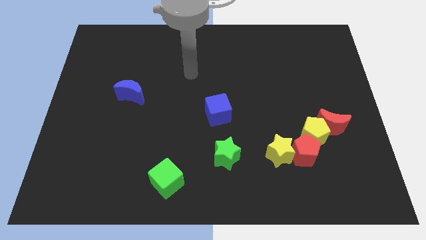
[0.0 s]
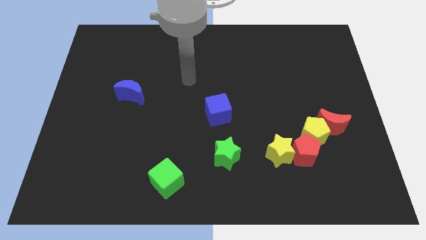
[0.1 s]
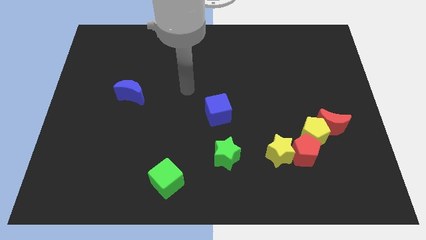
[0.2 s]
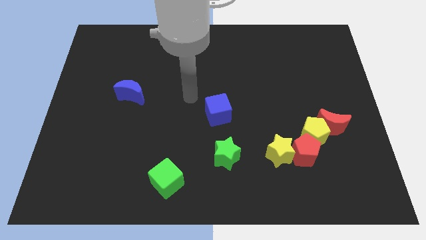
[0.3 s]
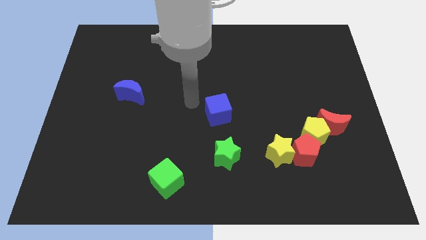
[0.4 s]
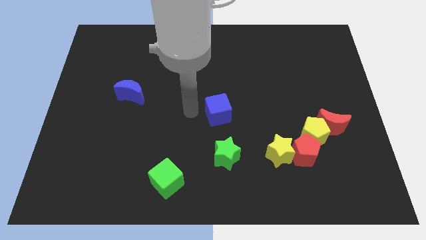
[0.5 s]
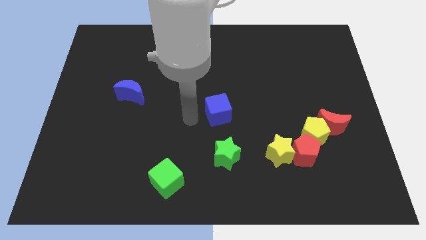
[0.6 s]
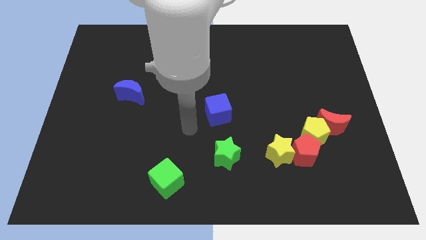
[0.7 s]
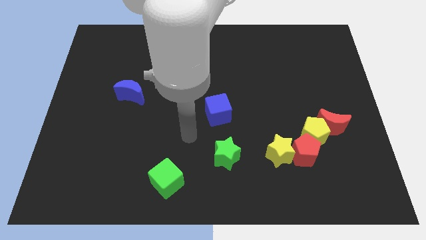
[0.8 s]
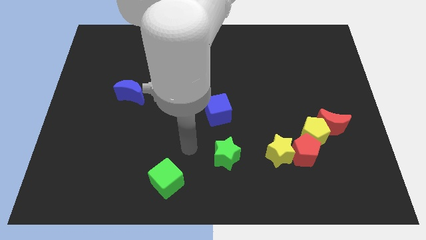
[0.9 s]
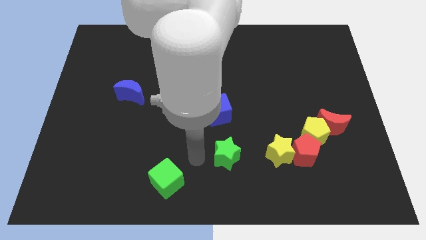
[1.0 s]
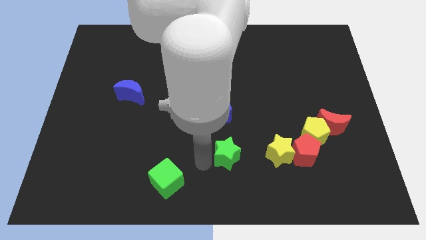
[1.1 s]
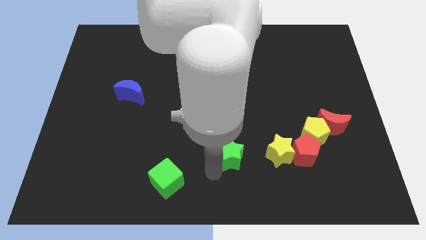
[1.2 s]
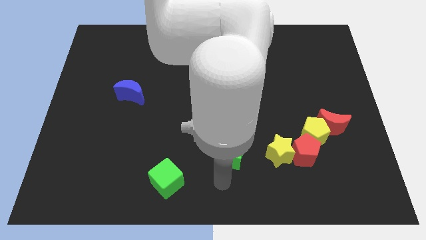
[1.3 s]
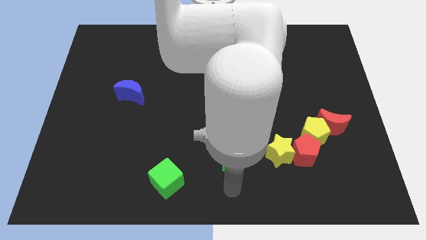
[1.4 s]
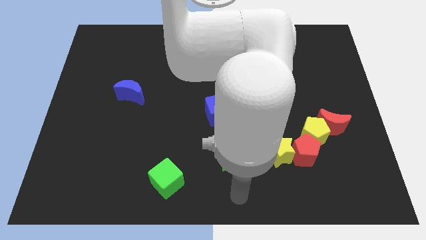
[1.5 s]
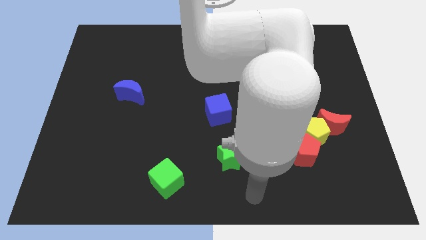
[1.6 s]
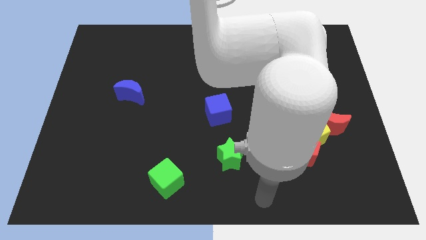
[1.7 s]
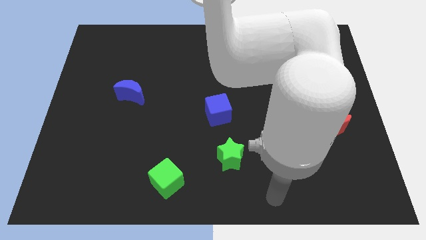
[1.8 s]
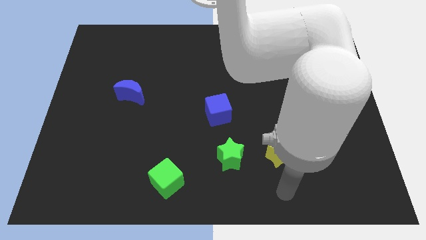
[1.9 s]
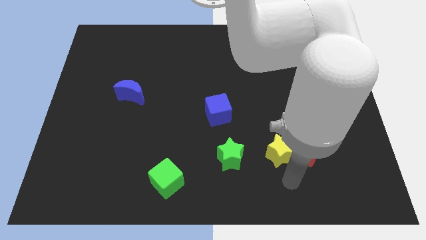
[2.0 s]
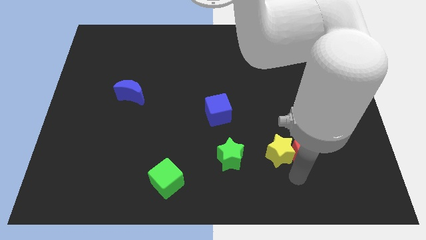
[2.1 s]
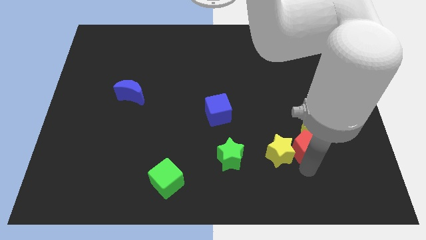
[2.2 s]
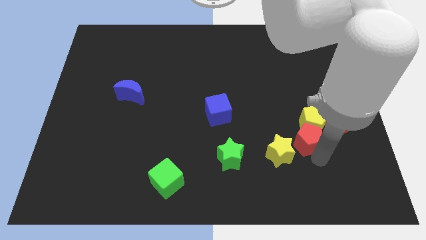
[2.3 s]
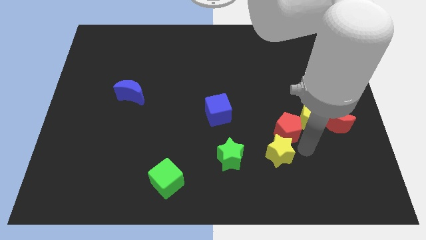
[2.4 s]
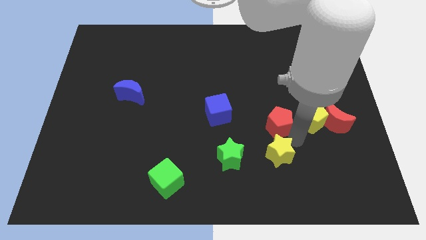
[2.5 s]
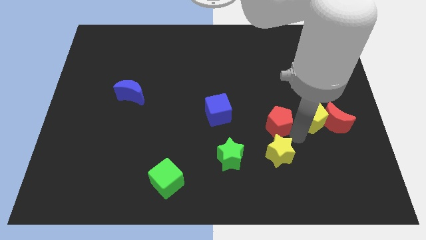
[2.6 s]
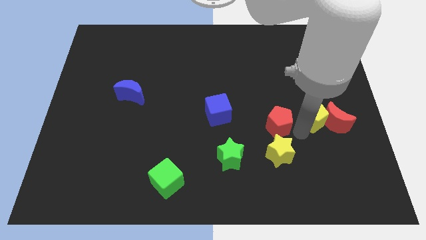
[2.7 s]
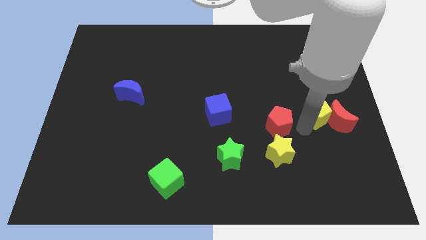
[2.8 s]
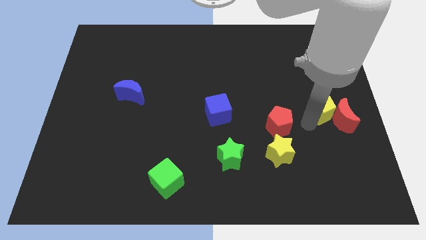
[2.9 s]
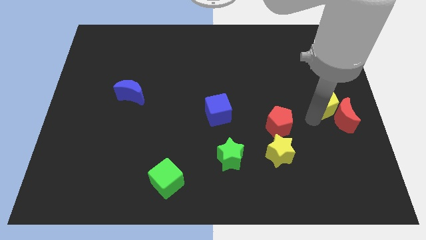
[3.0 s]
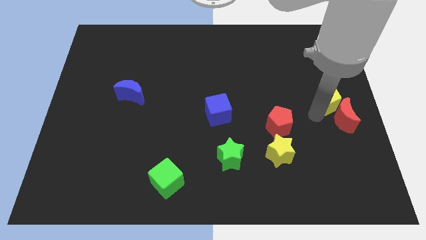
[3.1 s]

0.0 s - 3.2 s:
separate the yellow pentagon from the group

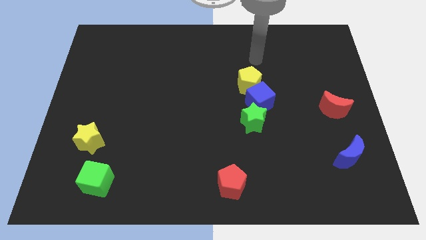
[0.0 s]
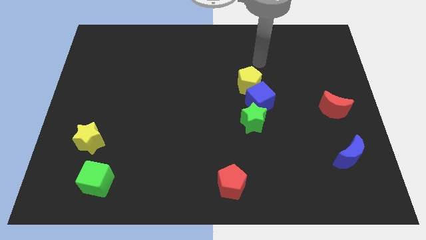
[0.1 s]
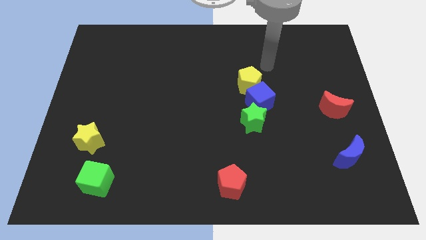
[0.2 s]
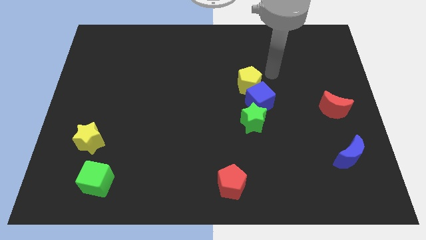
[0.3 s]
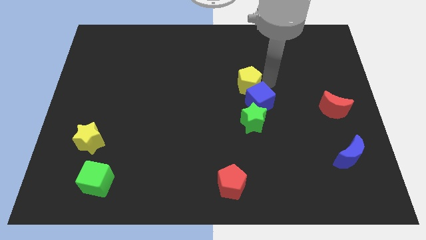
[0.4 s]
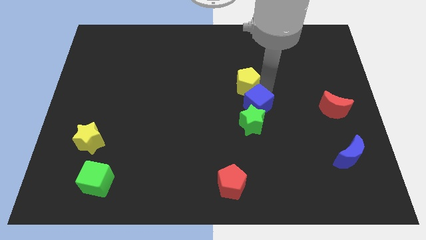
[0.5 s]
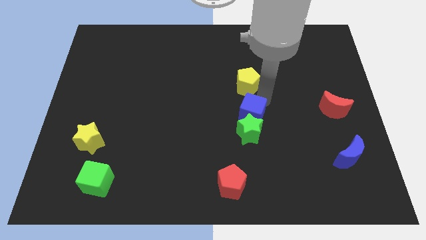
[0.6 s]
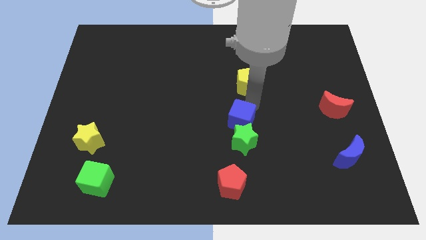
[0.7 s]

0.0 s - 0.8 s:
move the yellow pentagon away from the blue cube

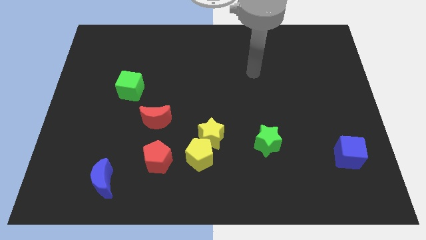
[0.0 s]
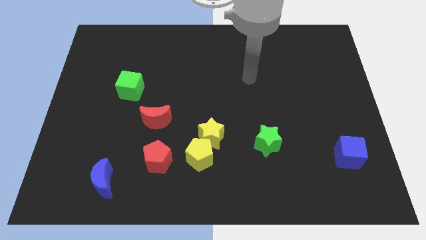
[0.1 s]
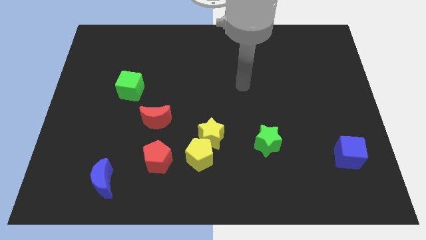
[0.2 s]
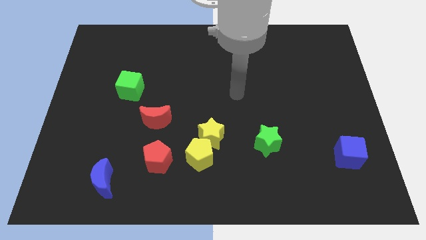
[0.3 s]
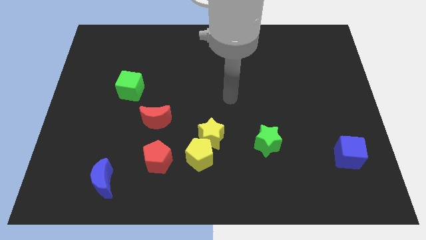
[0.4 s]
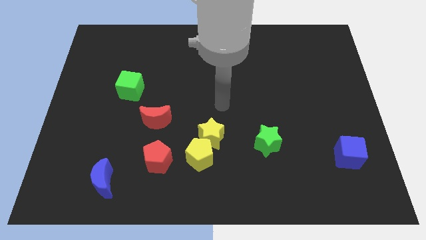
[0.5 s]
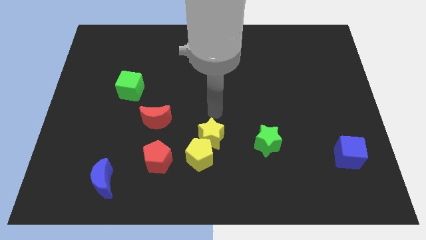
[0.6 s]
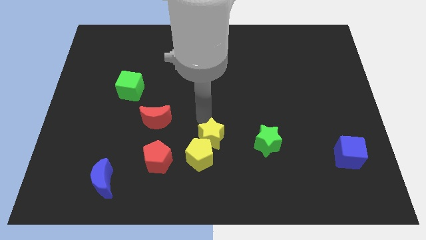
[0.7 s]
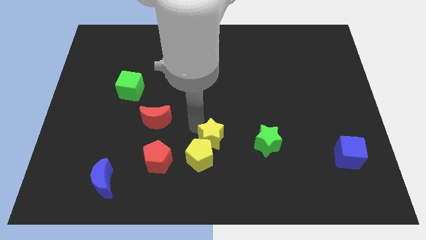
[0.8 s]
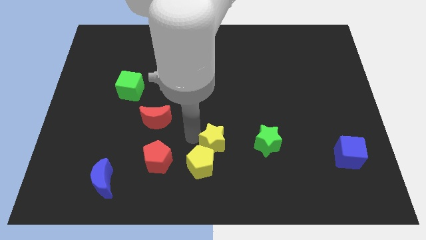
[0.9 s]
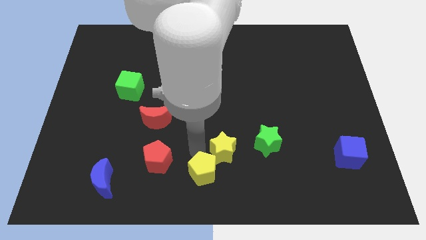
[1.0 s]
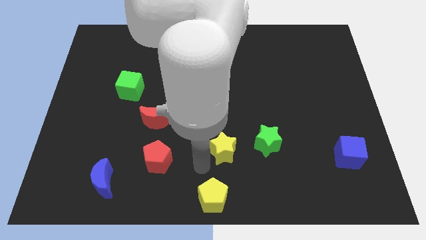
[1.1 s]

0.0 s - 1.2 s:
move the yellow star away from the yellow pentagon

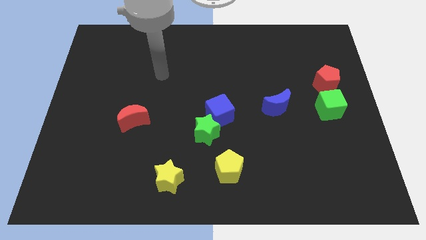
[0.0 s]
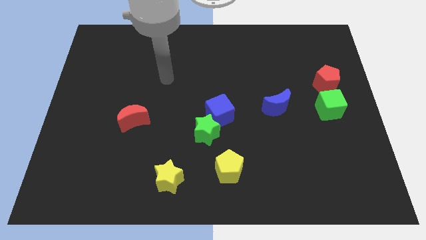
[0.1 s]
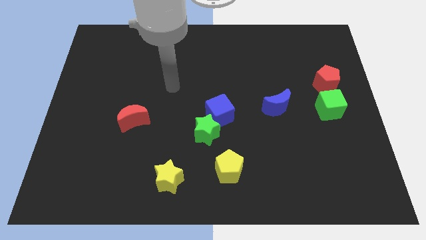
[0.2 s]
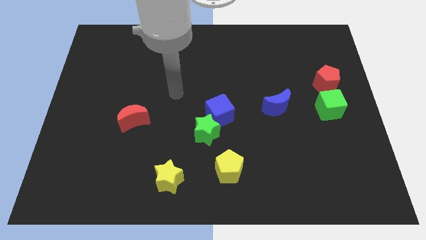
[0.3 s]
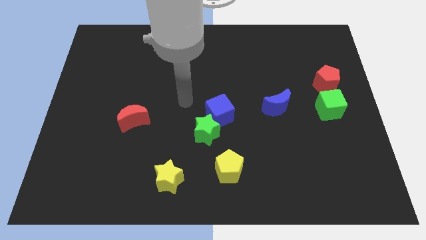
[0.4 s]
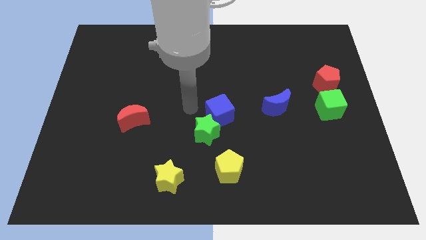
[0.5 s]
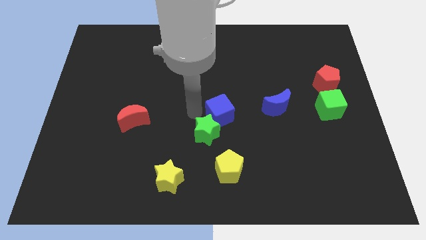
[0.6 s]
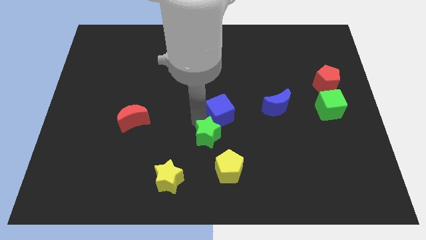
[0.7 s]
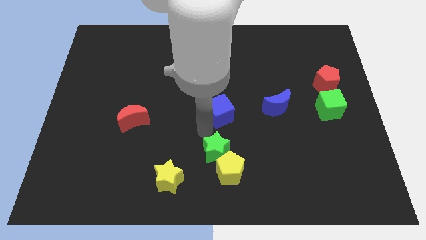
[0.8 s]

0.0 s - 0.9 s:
pull the blue cube apart from the green star

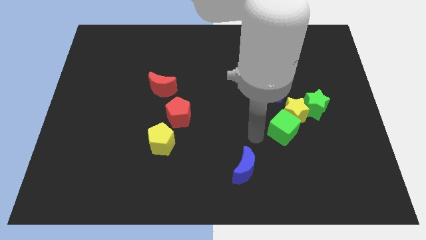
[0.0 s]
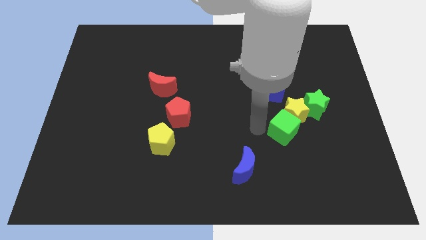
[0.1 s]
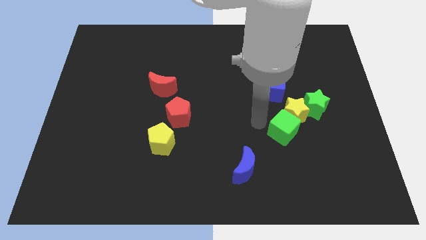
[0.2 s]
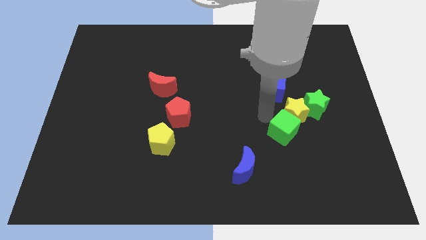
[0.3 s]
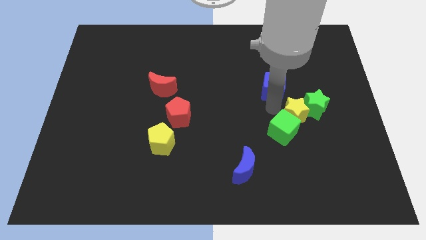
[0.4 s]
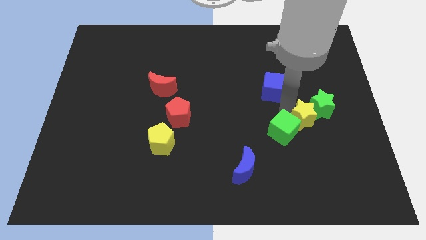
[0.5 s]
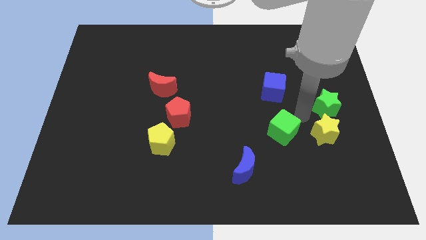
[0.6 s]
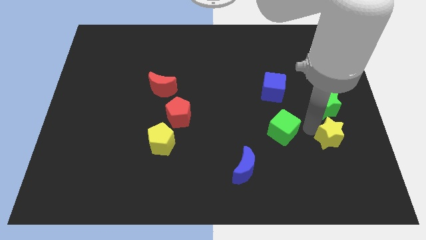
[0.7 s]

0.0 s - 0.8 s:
move the green cube away from the yellow star

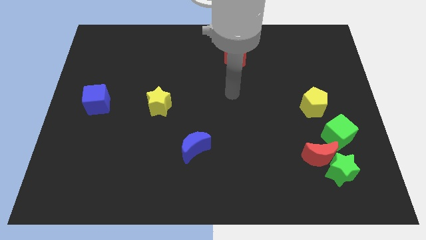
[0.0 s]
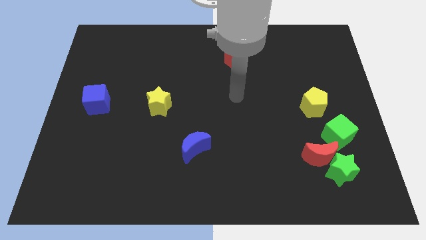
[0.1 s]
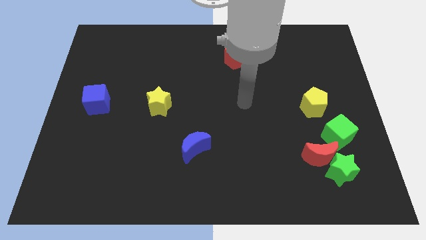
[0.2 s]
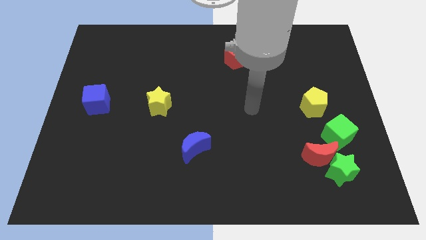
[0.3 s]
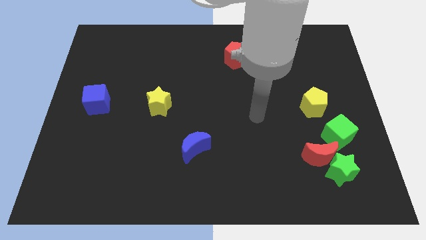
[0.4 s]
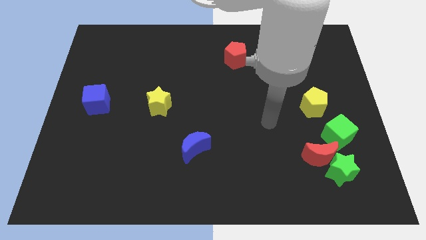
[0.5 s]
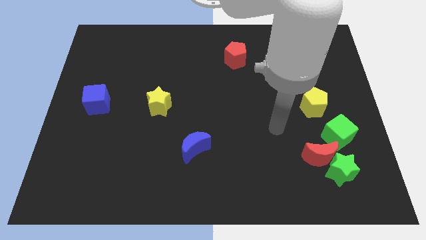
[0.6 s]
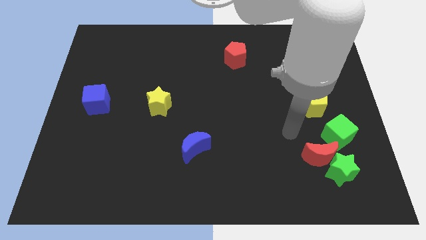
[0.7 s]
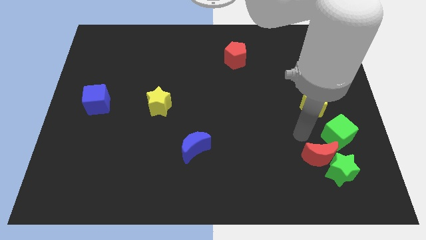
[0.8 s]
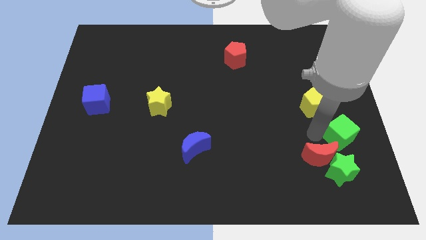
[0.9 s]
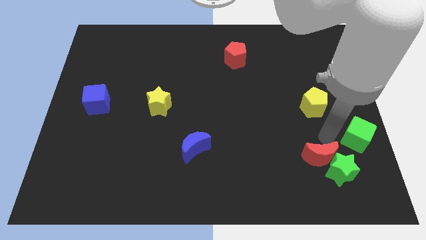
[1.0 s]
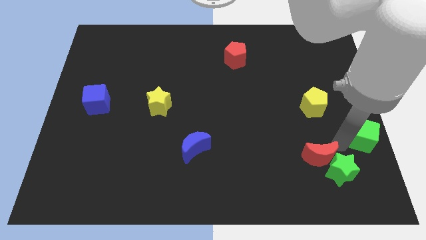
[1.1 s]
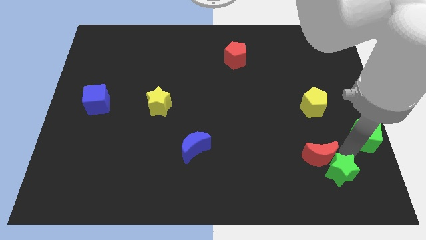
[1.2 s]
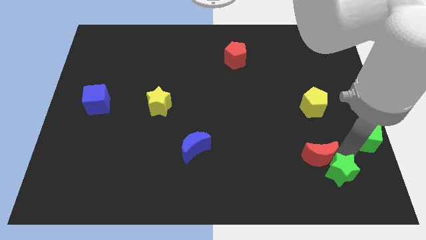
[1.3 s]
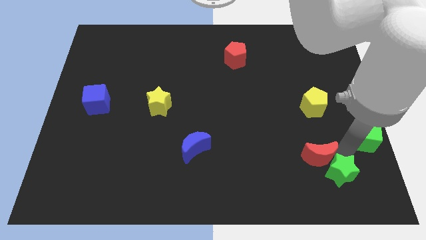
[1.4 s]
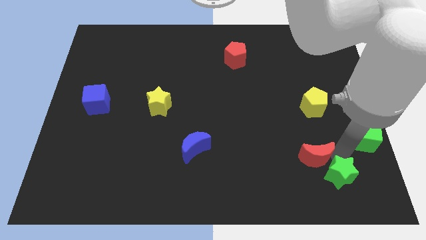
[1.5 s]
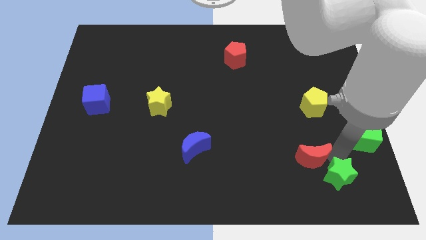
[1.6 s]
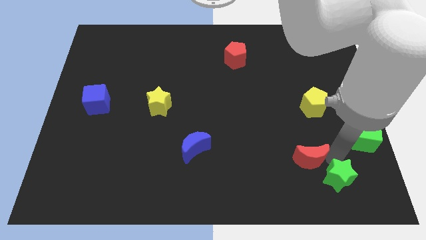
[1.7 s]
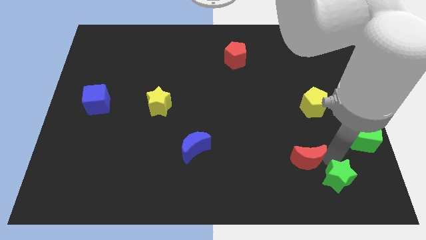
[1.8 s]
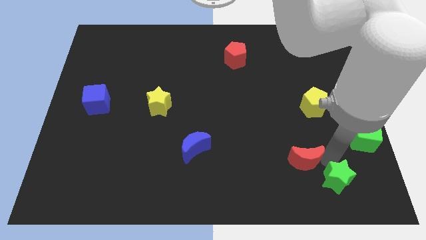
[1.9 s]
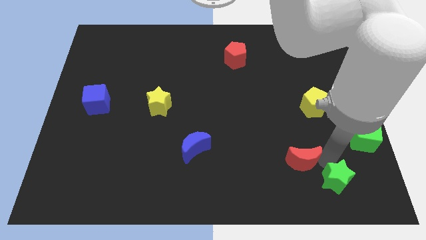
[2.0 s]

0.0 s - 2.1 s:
move the red moon away from the green star and green cube

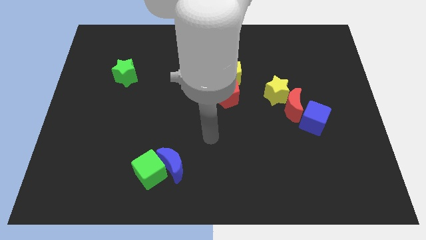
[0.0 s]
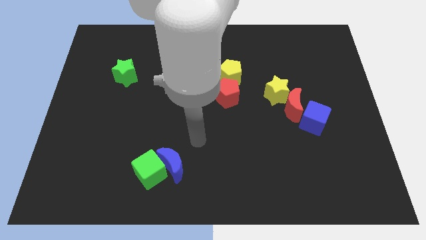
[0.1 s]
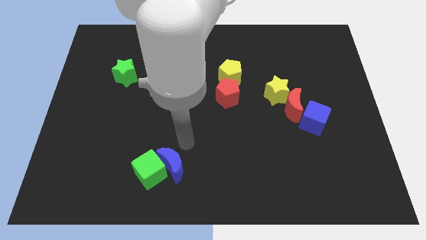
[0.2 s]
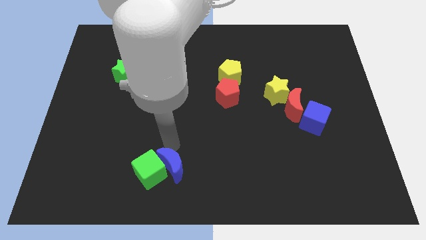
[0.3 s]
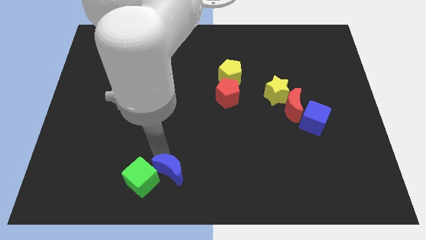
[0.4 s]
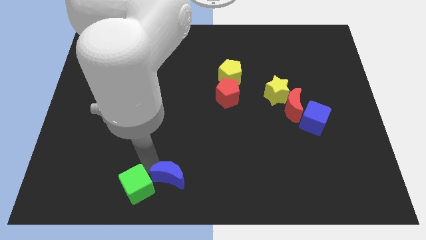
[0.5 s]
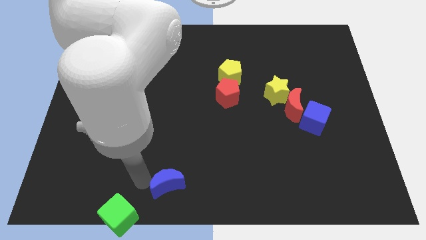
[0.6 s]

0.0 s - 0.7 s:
pull the blue moon apart from the green cube
